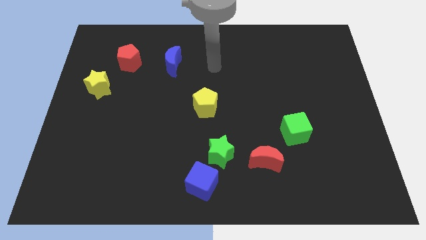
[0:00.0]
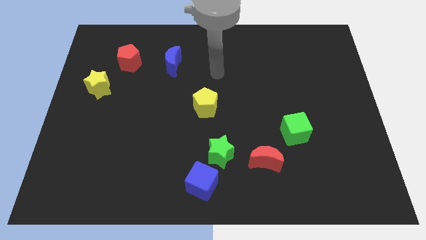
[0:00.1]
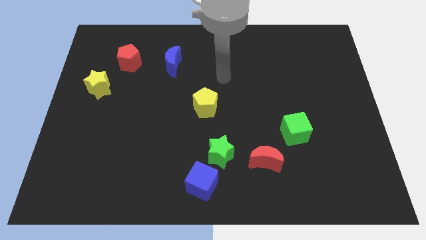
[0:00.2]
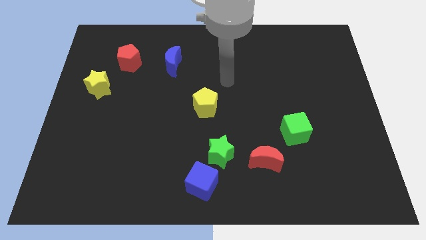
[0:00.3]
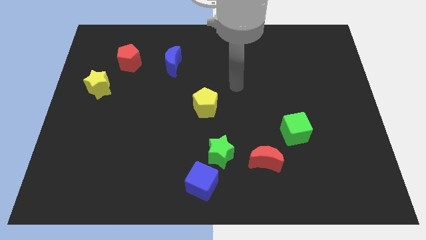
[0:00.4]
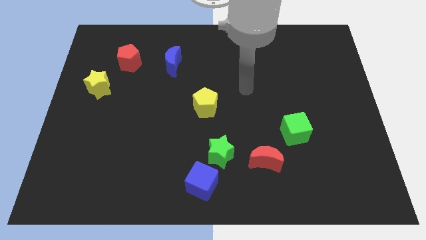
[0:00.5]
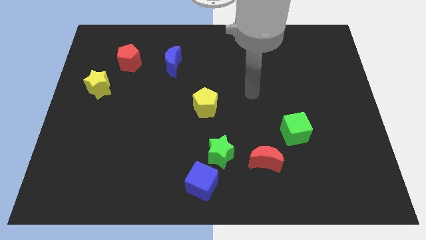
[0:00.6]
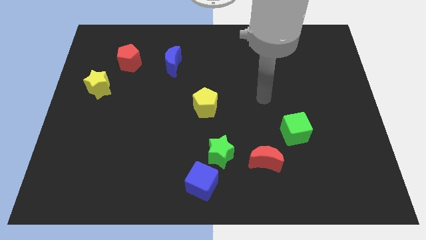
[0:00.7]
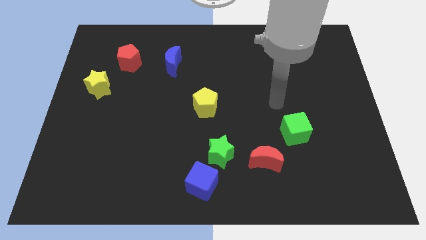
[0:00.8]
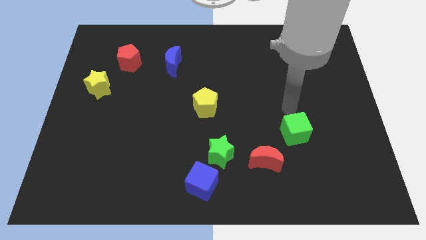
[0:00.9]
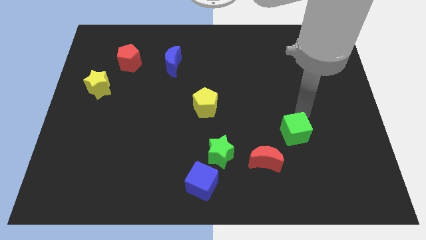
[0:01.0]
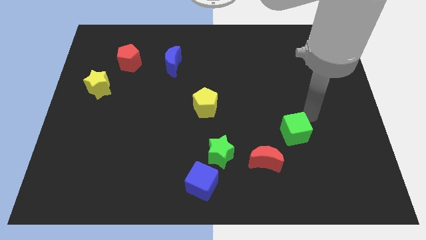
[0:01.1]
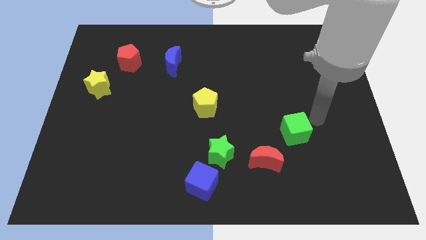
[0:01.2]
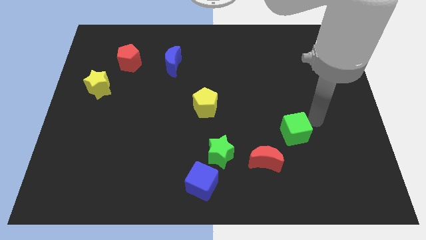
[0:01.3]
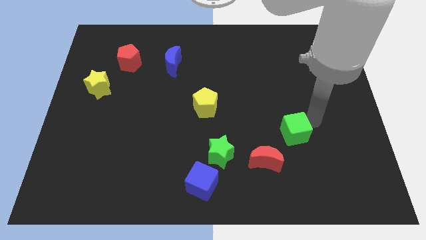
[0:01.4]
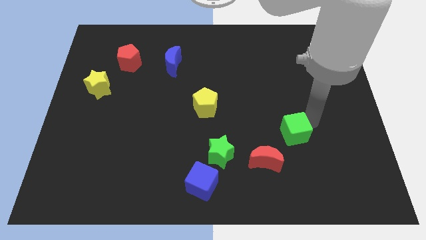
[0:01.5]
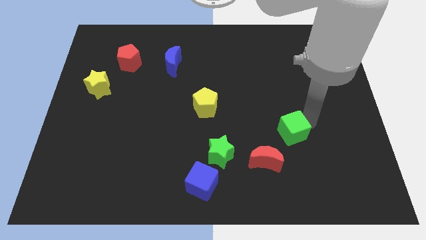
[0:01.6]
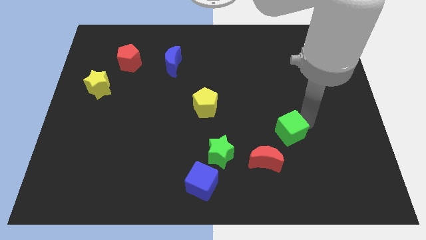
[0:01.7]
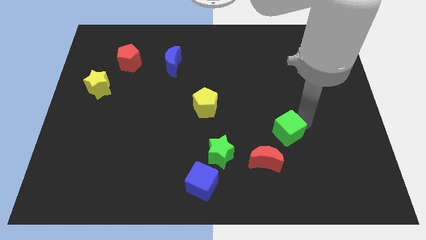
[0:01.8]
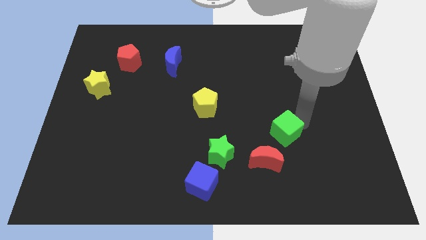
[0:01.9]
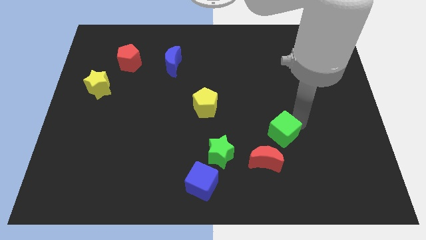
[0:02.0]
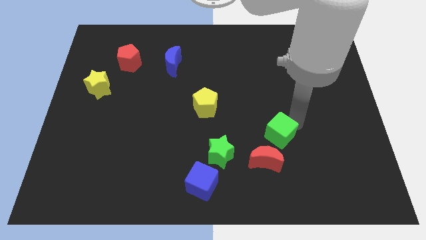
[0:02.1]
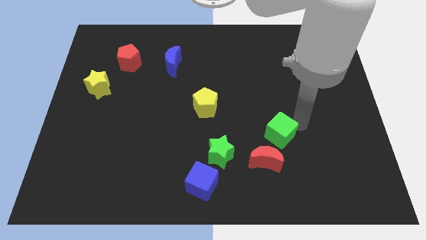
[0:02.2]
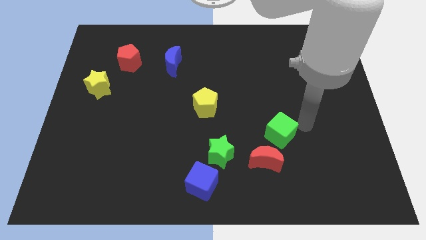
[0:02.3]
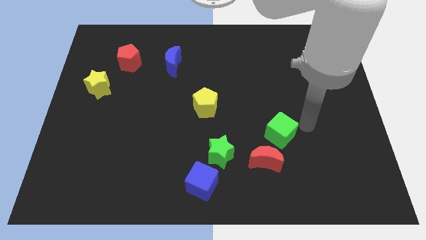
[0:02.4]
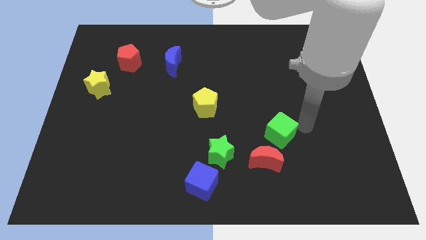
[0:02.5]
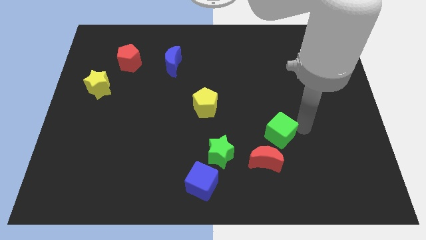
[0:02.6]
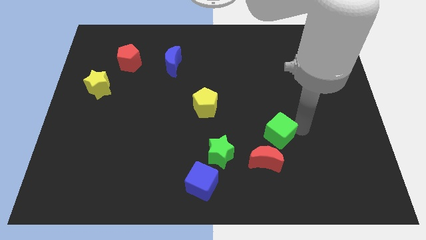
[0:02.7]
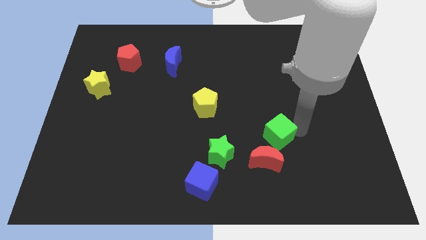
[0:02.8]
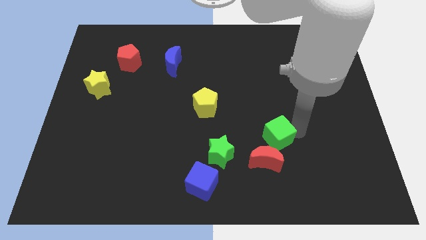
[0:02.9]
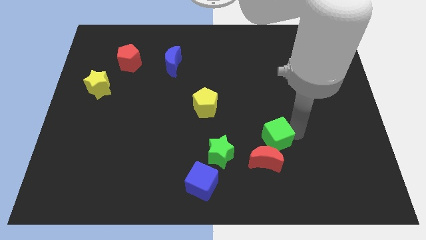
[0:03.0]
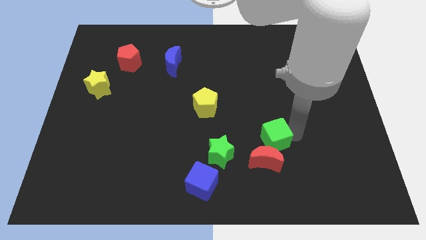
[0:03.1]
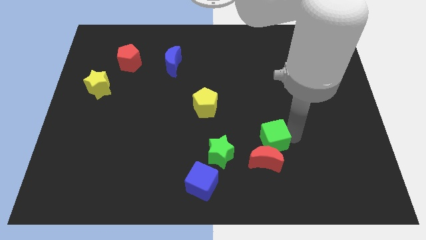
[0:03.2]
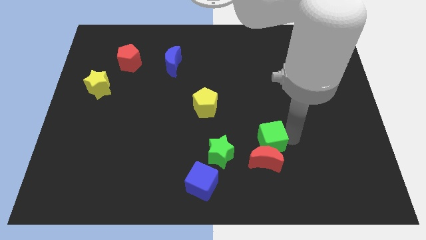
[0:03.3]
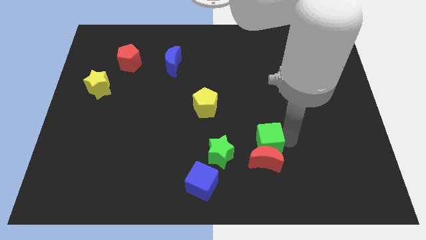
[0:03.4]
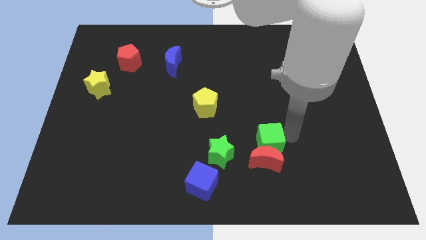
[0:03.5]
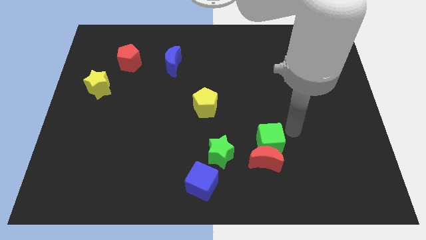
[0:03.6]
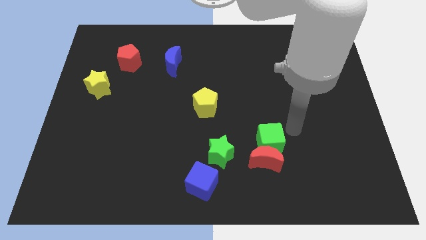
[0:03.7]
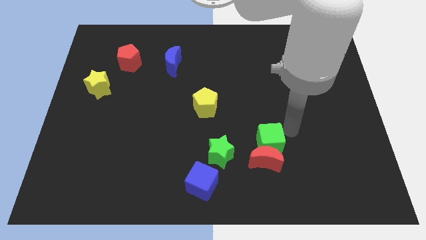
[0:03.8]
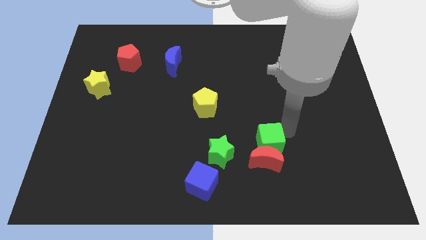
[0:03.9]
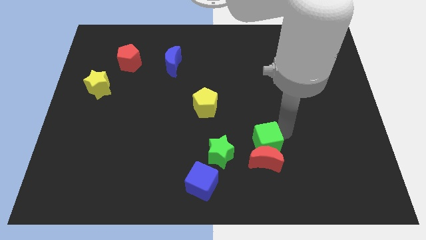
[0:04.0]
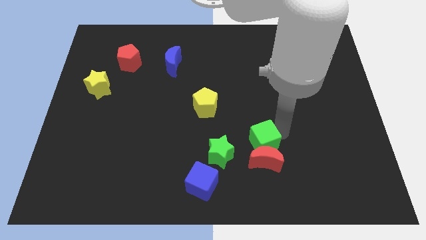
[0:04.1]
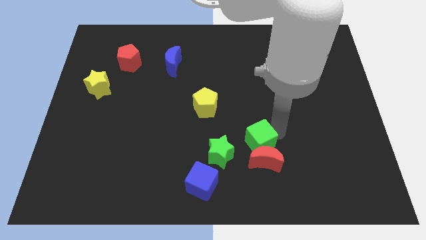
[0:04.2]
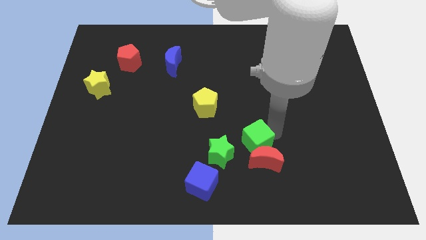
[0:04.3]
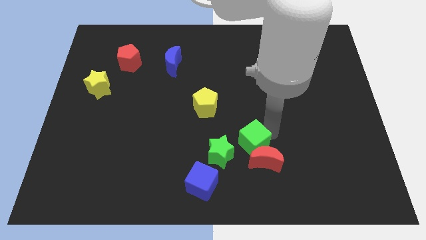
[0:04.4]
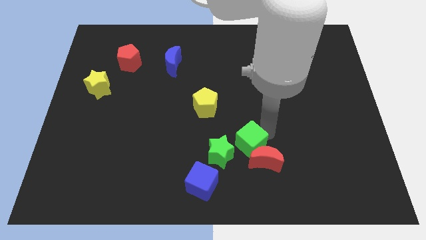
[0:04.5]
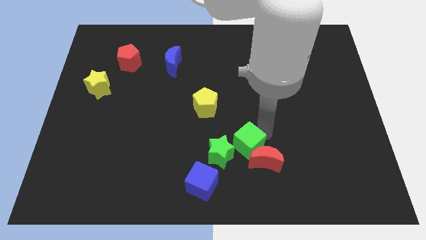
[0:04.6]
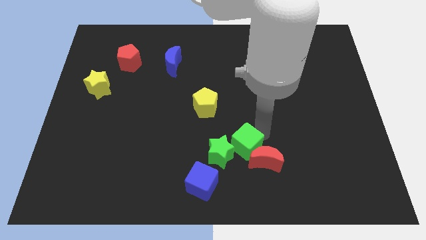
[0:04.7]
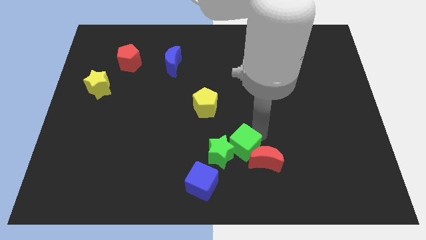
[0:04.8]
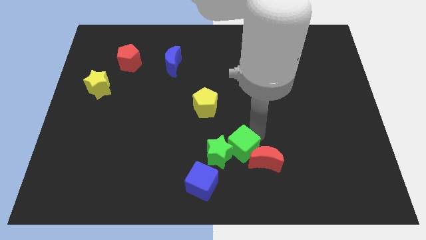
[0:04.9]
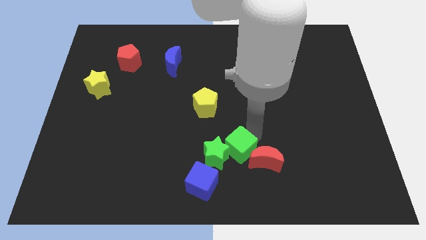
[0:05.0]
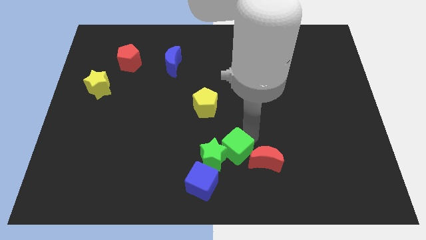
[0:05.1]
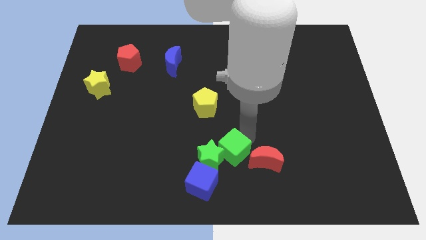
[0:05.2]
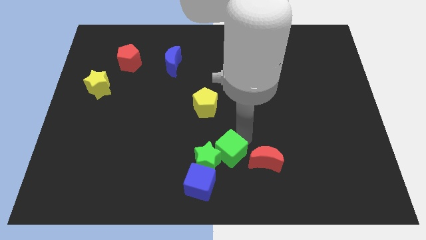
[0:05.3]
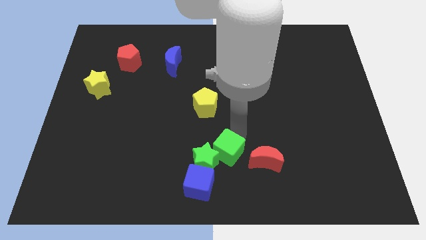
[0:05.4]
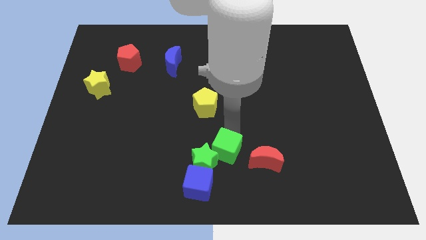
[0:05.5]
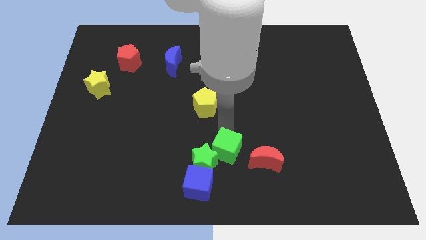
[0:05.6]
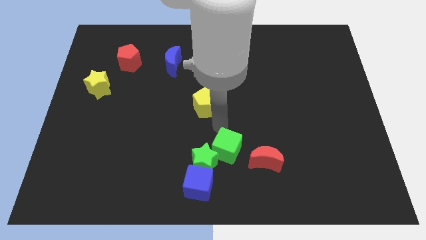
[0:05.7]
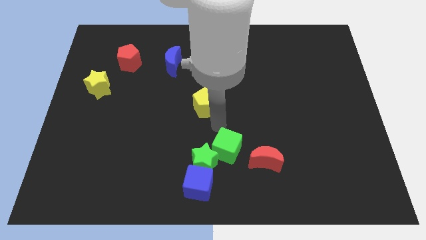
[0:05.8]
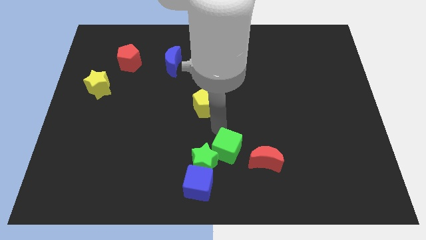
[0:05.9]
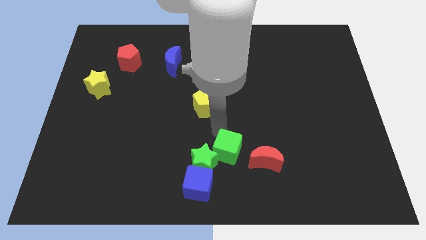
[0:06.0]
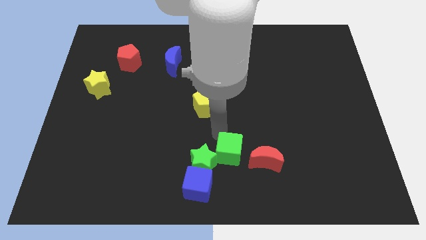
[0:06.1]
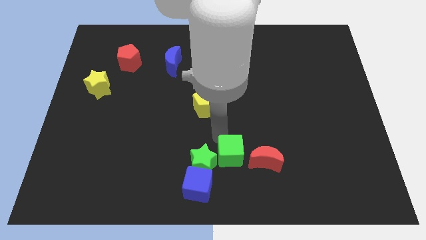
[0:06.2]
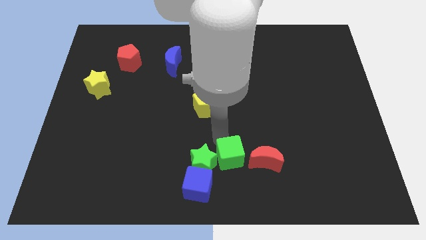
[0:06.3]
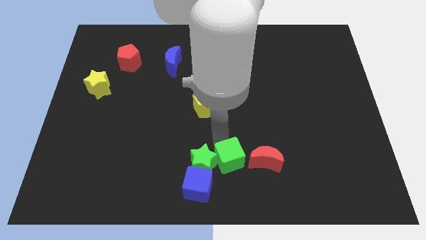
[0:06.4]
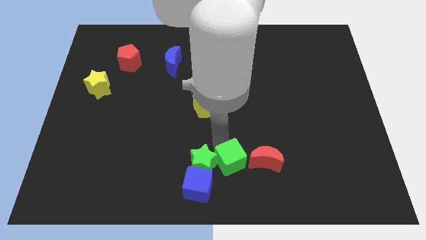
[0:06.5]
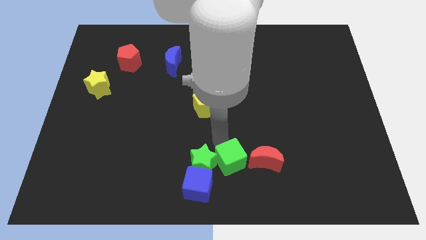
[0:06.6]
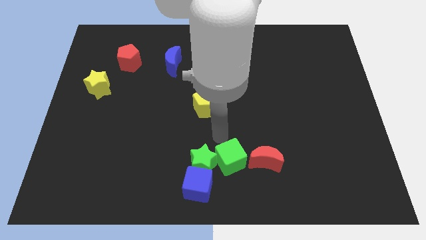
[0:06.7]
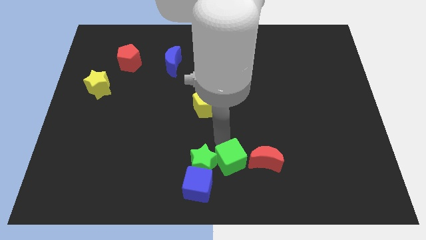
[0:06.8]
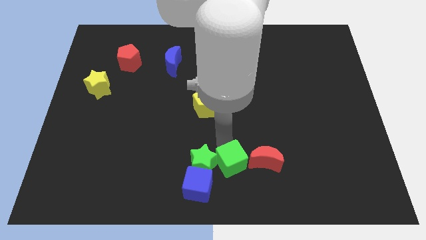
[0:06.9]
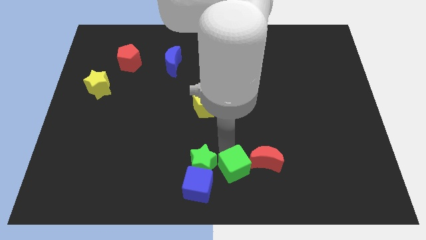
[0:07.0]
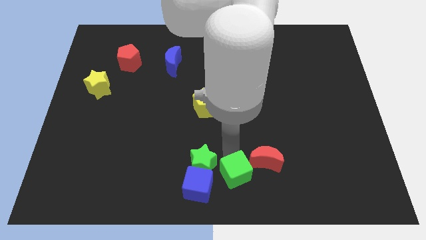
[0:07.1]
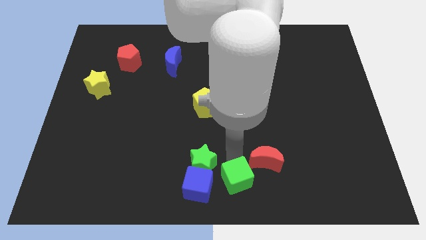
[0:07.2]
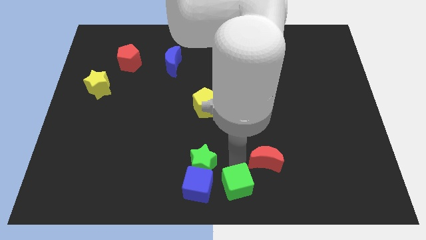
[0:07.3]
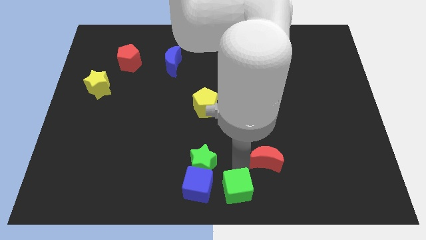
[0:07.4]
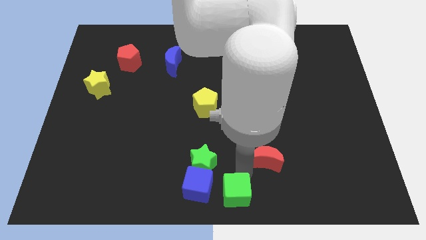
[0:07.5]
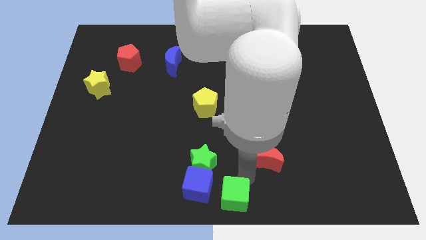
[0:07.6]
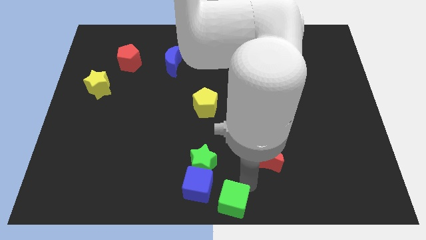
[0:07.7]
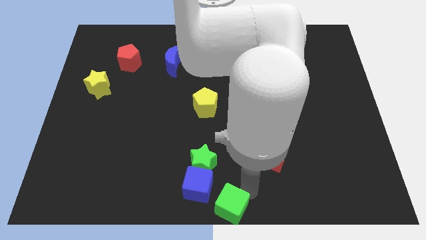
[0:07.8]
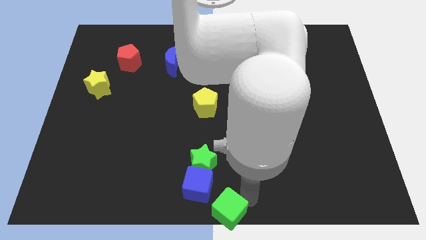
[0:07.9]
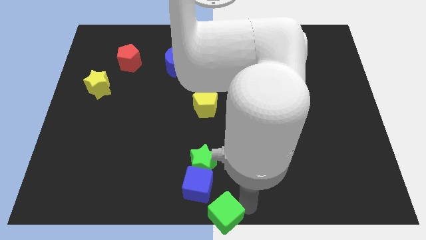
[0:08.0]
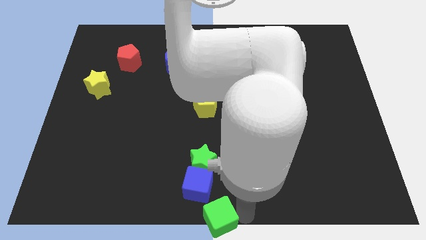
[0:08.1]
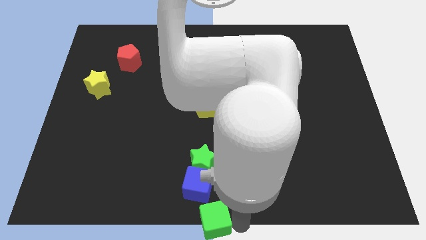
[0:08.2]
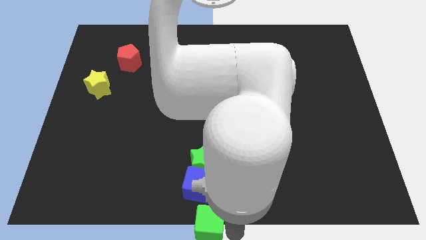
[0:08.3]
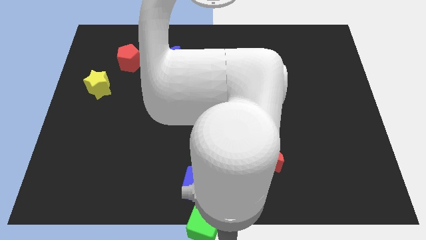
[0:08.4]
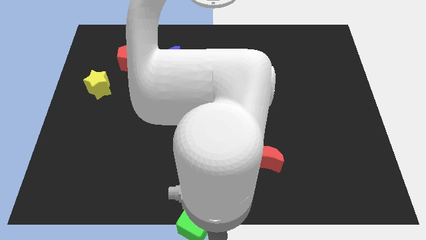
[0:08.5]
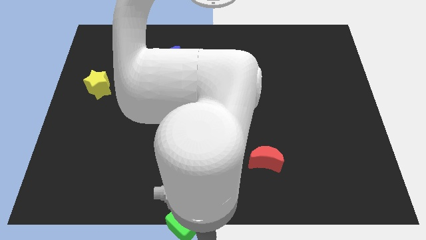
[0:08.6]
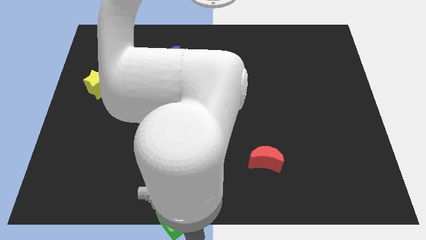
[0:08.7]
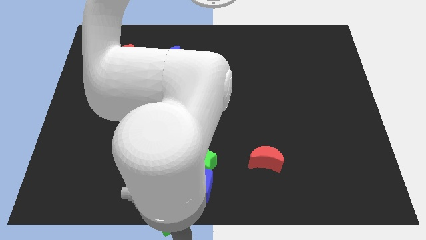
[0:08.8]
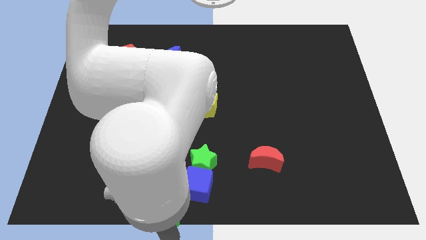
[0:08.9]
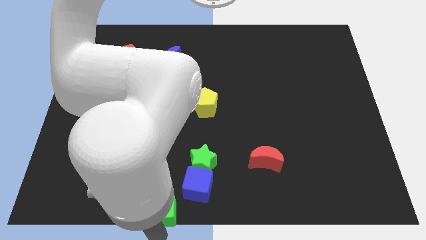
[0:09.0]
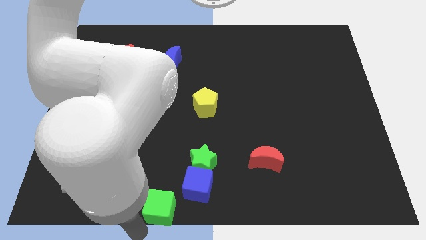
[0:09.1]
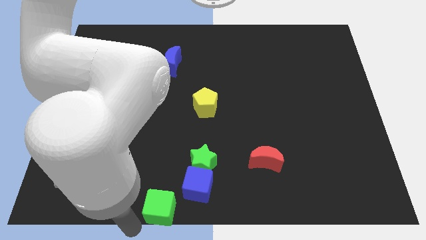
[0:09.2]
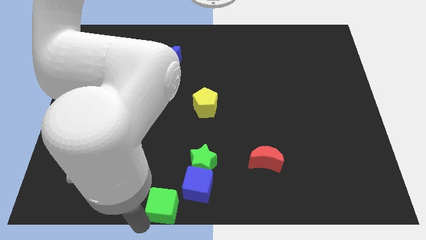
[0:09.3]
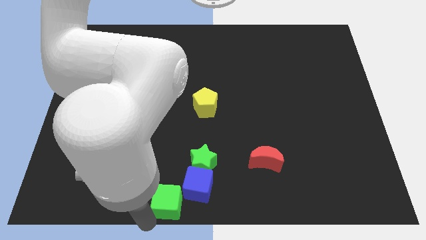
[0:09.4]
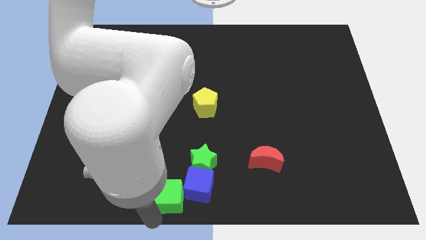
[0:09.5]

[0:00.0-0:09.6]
move the green cube close to the blue cube
